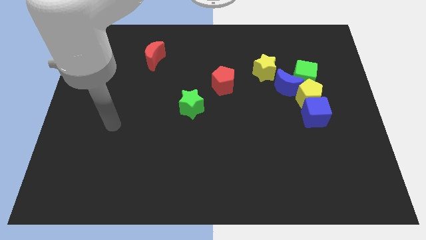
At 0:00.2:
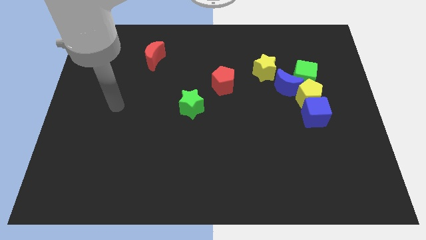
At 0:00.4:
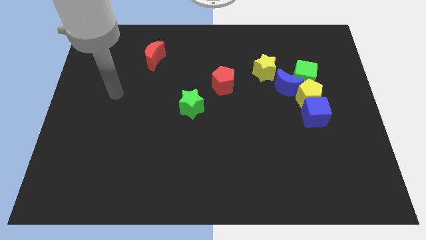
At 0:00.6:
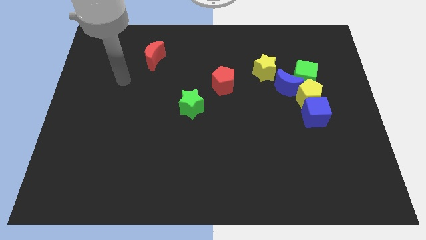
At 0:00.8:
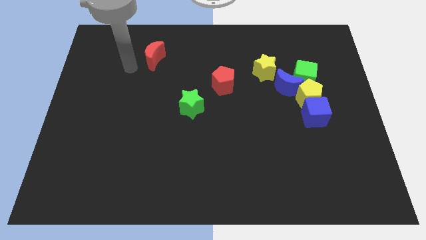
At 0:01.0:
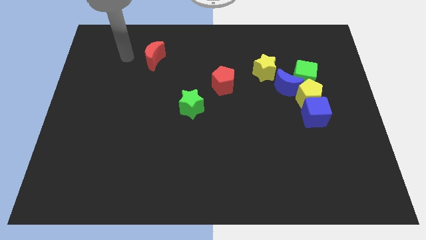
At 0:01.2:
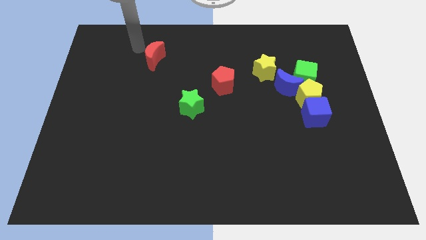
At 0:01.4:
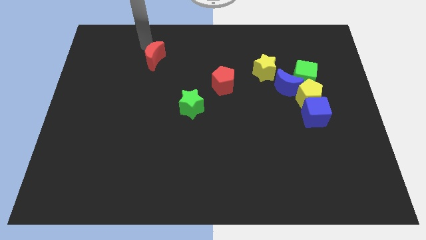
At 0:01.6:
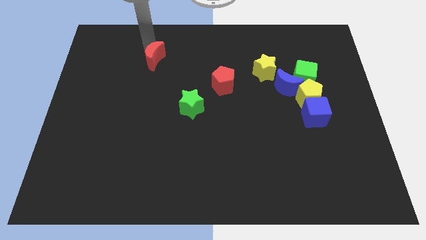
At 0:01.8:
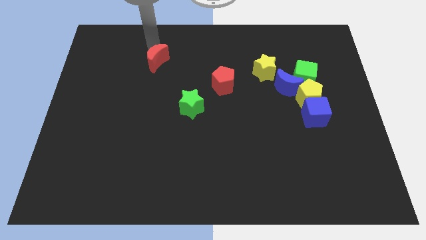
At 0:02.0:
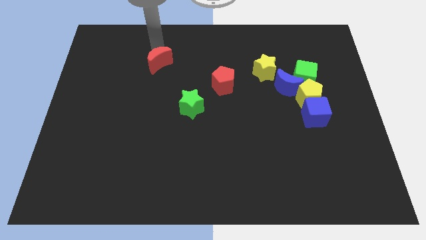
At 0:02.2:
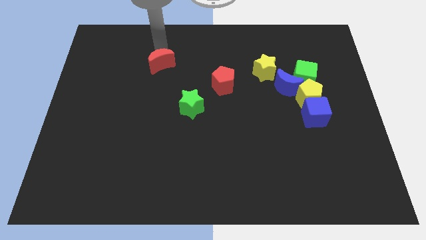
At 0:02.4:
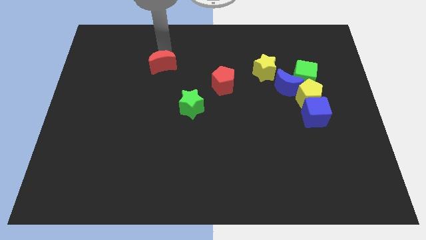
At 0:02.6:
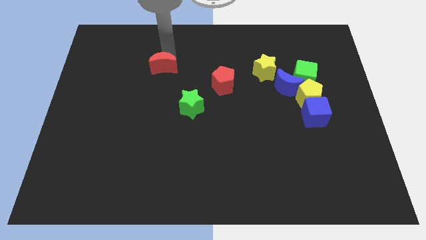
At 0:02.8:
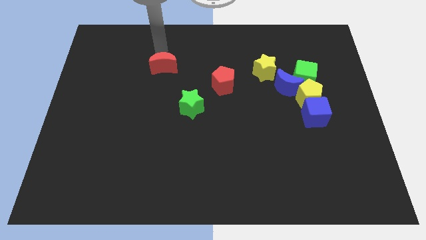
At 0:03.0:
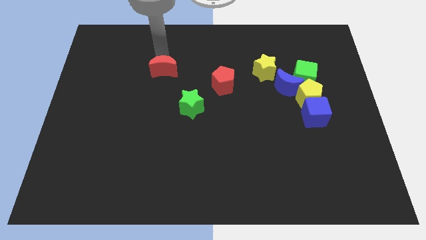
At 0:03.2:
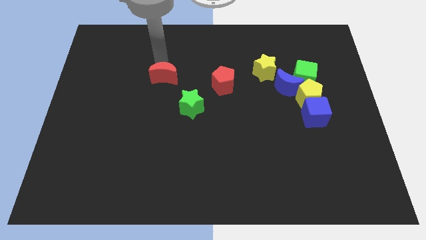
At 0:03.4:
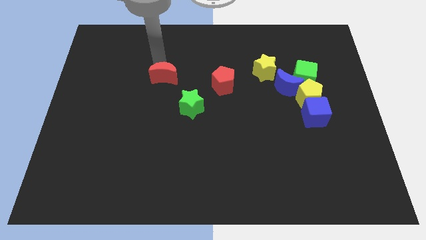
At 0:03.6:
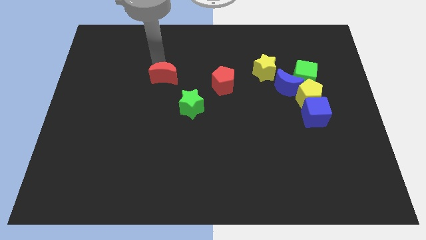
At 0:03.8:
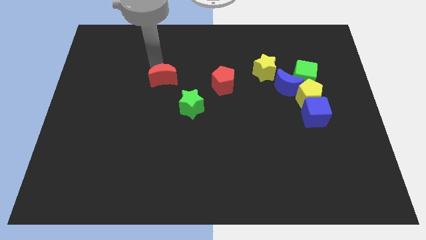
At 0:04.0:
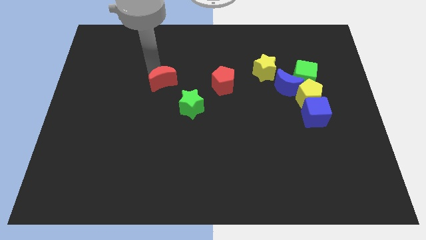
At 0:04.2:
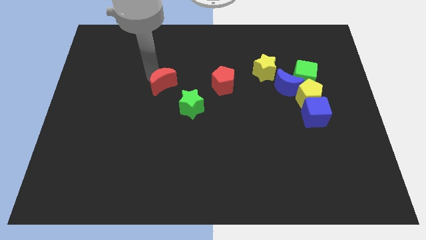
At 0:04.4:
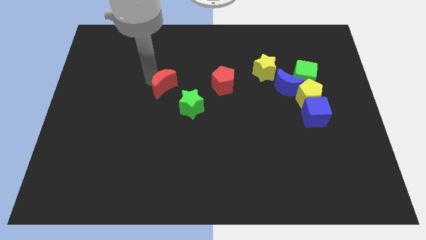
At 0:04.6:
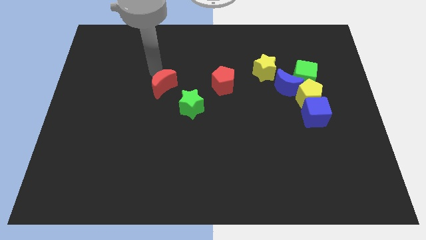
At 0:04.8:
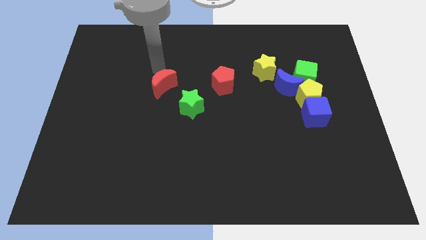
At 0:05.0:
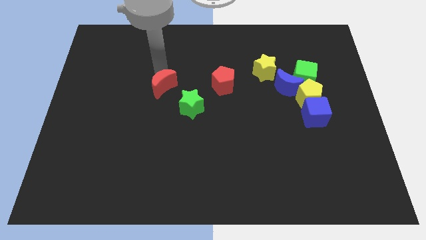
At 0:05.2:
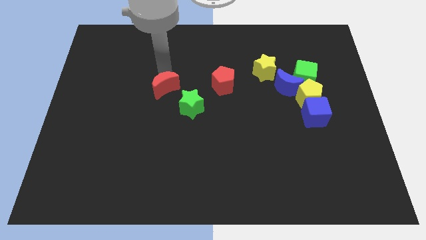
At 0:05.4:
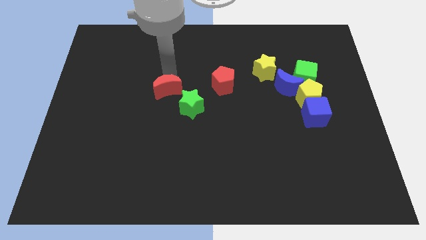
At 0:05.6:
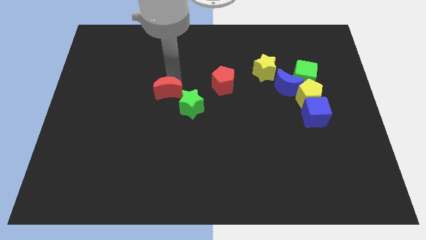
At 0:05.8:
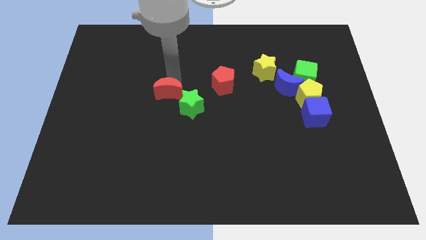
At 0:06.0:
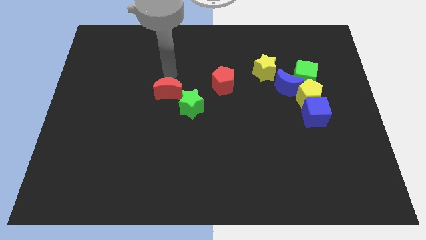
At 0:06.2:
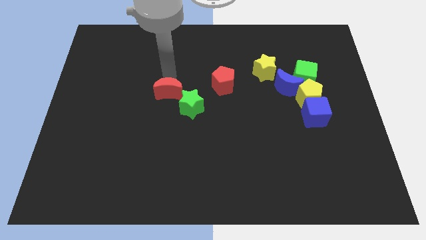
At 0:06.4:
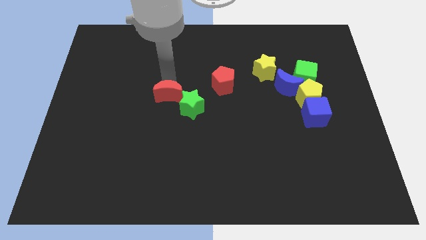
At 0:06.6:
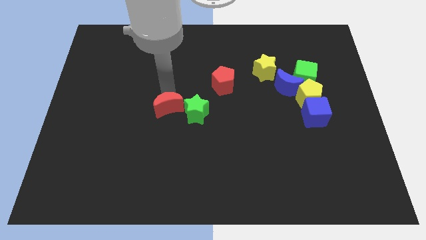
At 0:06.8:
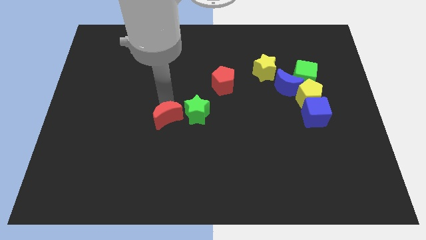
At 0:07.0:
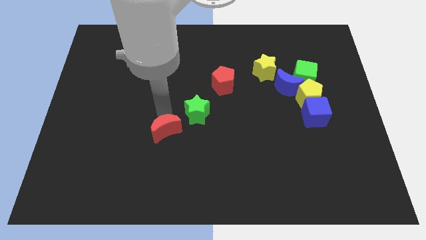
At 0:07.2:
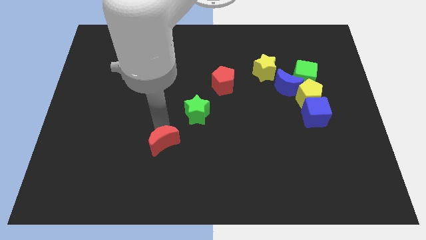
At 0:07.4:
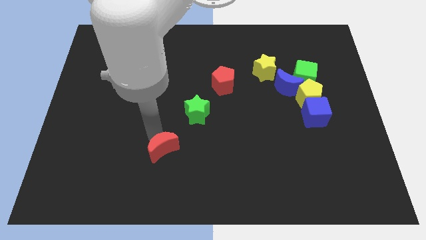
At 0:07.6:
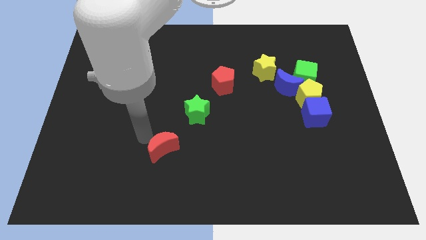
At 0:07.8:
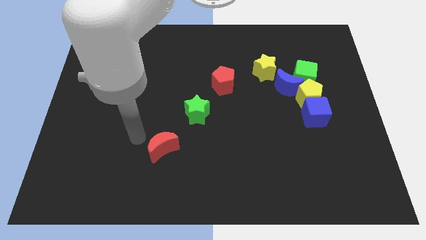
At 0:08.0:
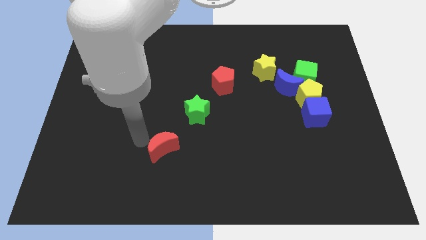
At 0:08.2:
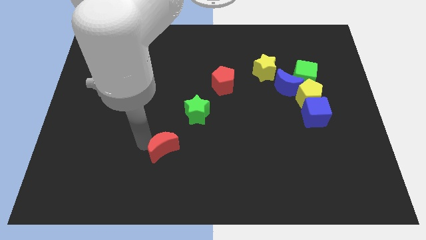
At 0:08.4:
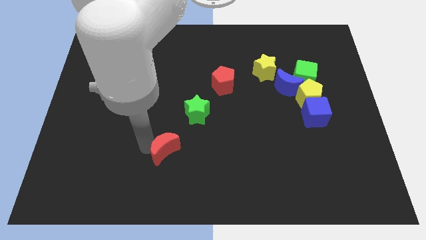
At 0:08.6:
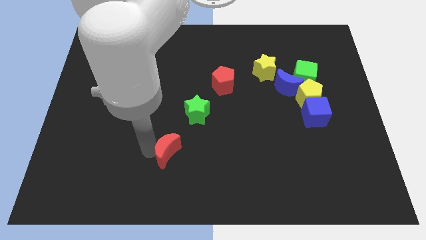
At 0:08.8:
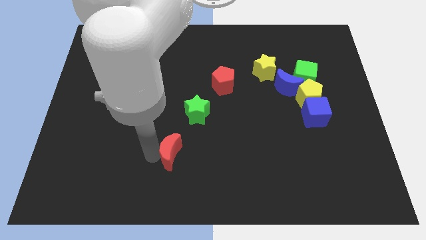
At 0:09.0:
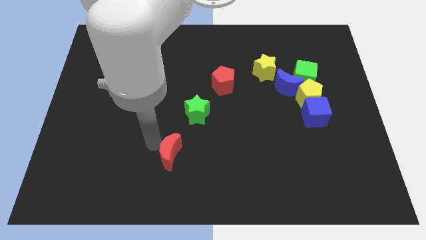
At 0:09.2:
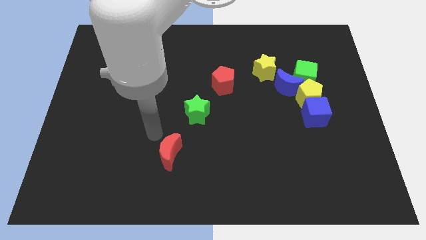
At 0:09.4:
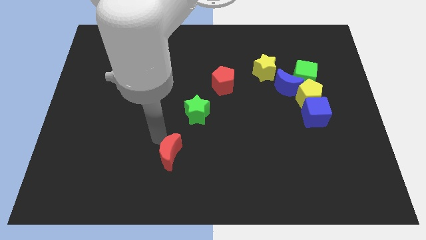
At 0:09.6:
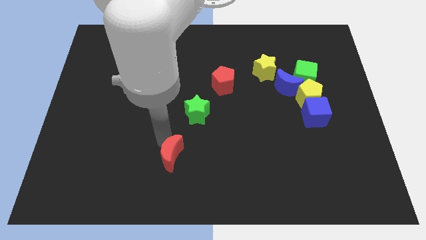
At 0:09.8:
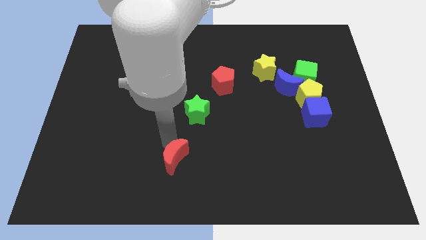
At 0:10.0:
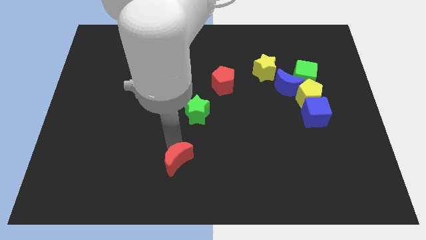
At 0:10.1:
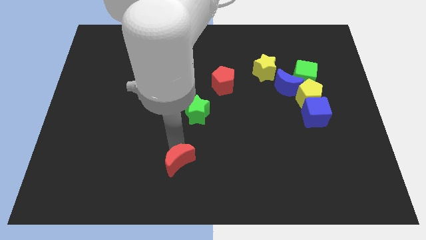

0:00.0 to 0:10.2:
push the red moon to the bottom

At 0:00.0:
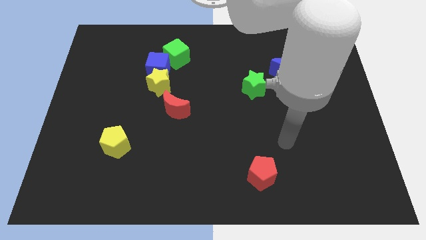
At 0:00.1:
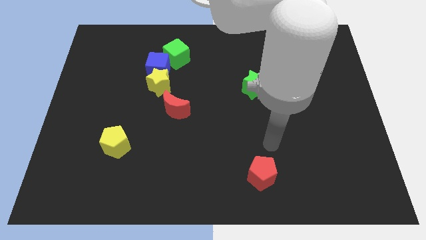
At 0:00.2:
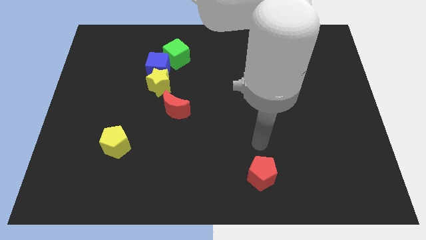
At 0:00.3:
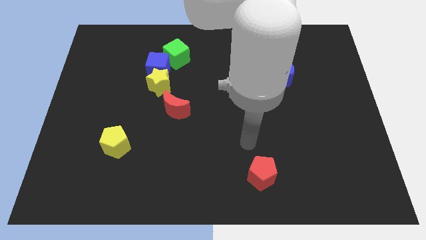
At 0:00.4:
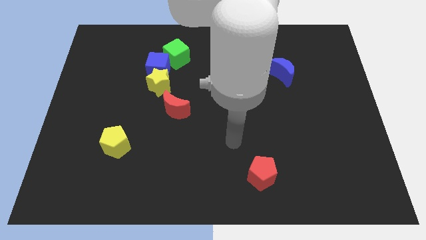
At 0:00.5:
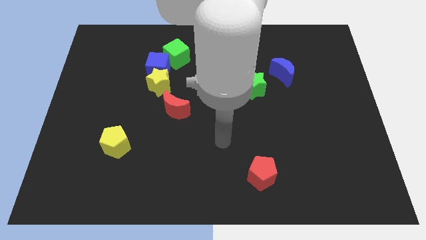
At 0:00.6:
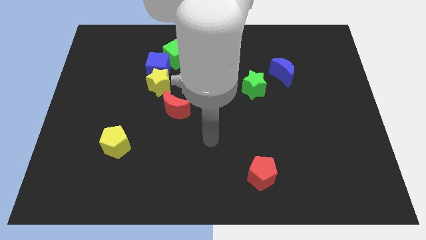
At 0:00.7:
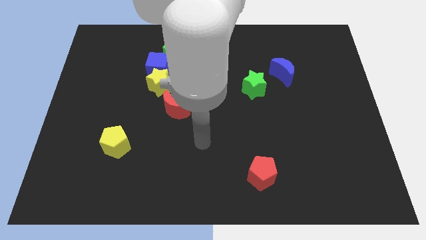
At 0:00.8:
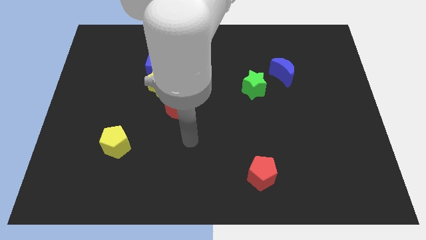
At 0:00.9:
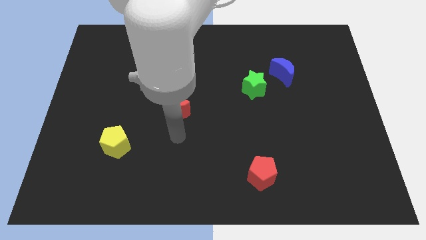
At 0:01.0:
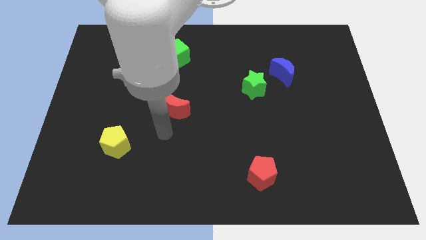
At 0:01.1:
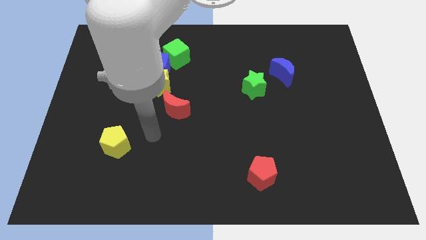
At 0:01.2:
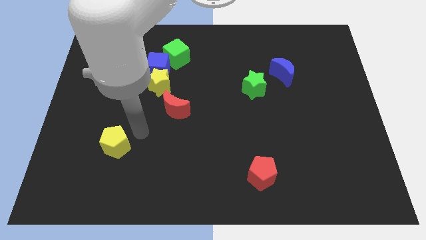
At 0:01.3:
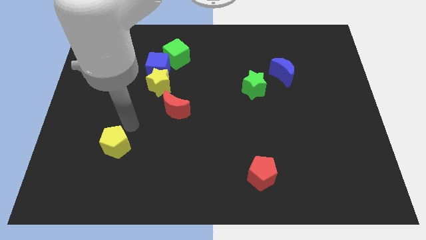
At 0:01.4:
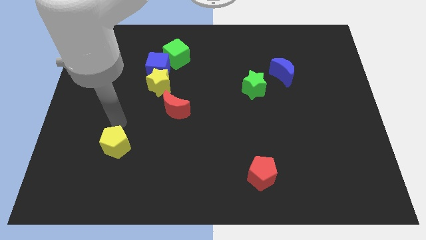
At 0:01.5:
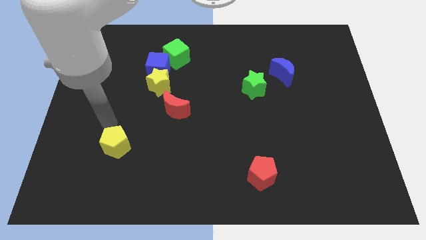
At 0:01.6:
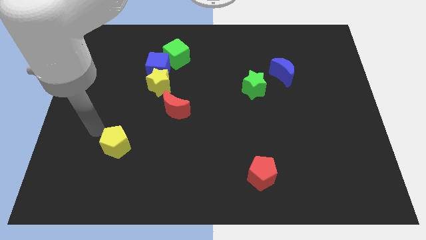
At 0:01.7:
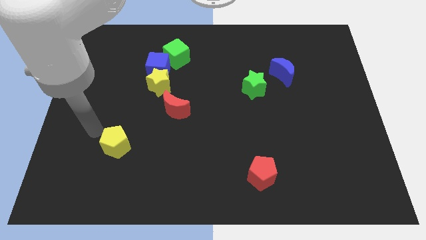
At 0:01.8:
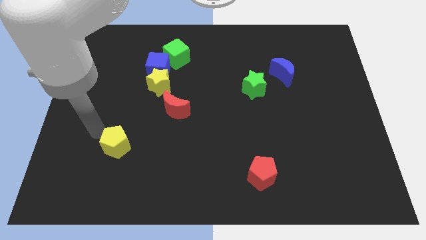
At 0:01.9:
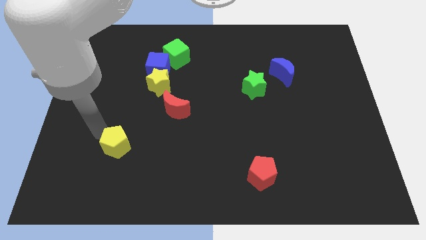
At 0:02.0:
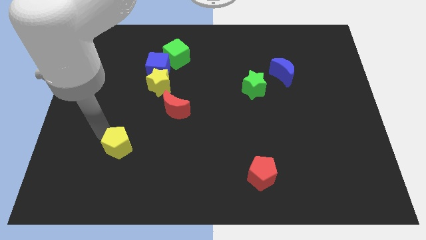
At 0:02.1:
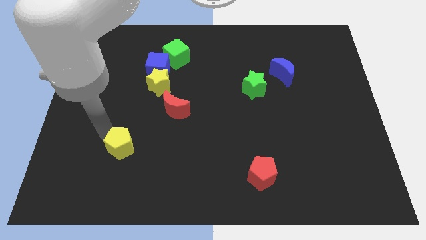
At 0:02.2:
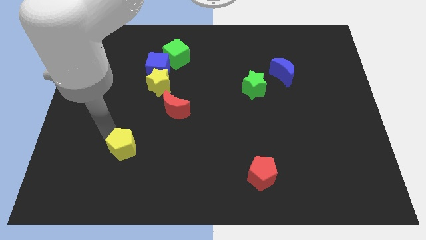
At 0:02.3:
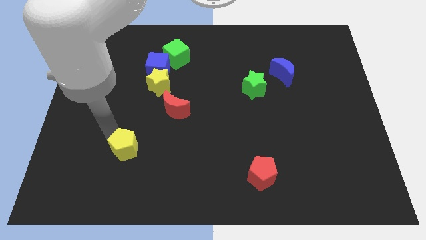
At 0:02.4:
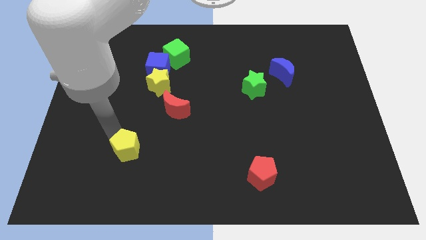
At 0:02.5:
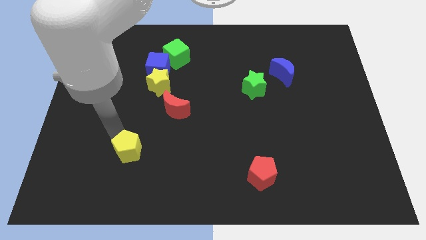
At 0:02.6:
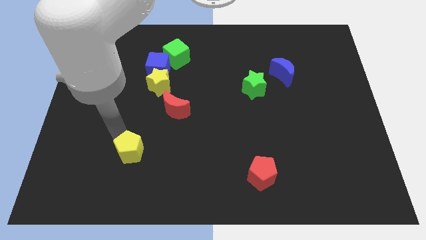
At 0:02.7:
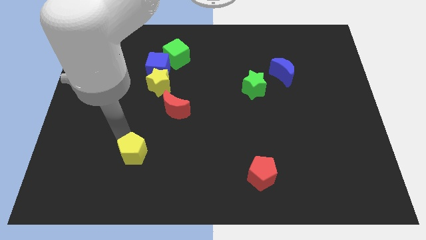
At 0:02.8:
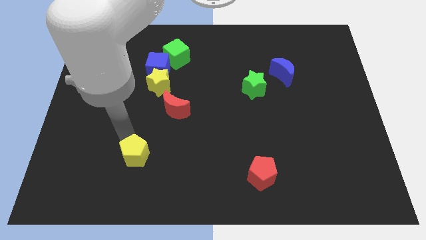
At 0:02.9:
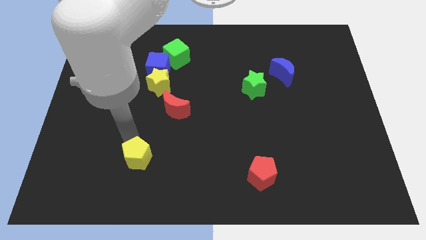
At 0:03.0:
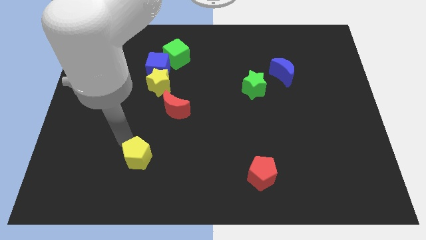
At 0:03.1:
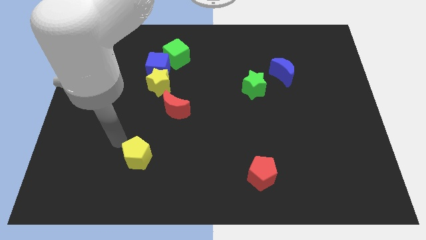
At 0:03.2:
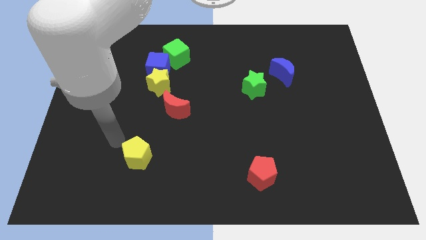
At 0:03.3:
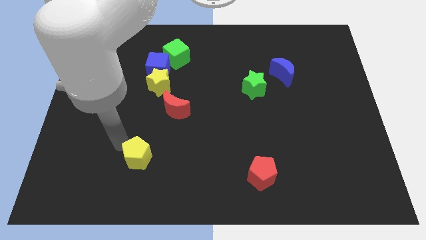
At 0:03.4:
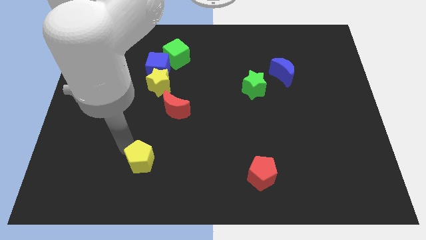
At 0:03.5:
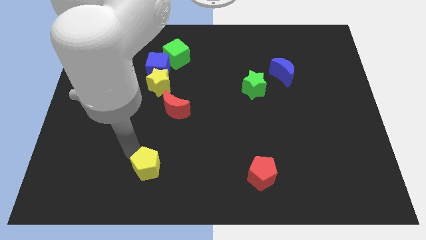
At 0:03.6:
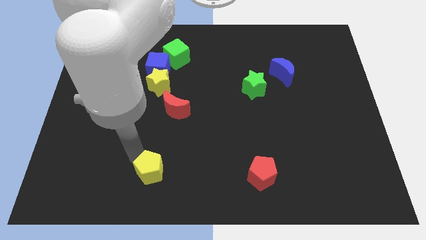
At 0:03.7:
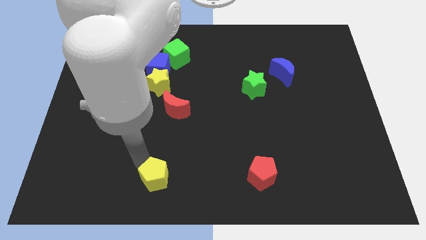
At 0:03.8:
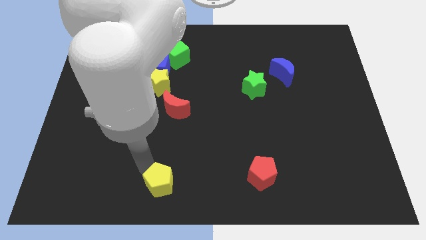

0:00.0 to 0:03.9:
put the yellow pentagon to the bottom side
